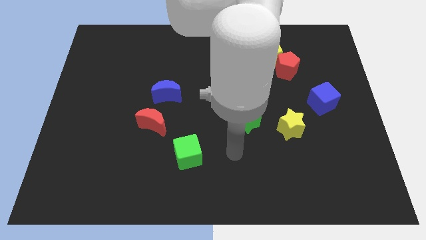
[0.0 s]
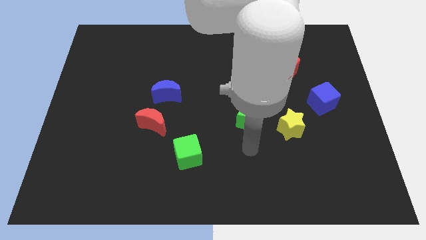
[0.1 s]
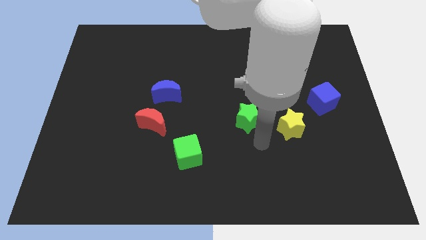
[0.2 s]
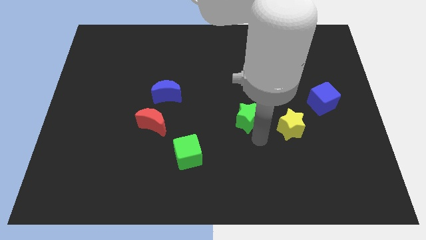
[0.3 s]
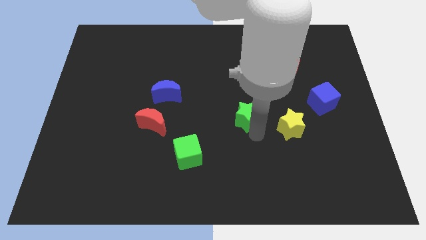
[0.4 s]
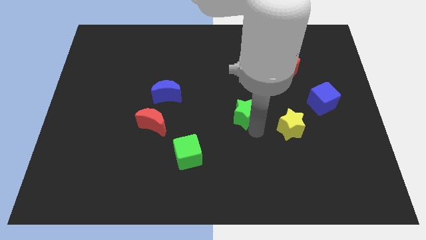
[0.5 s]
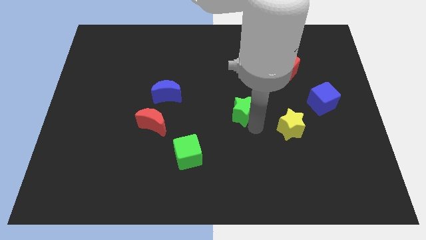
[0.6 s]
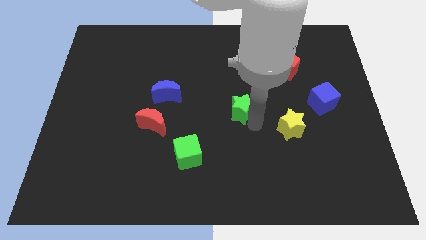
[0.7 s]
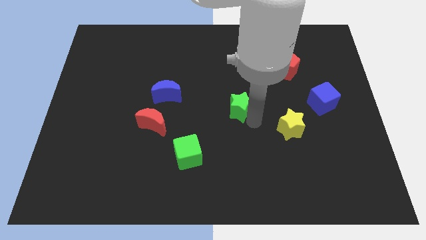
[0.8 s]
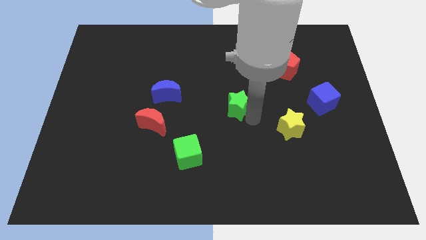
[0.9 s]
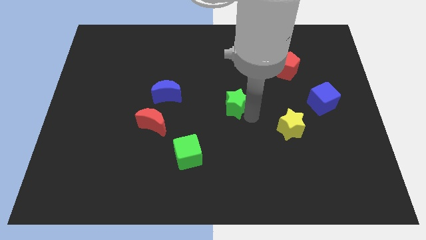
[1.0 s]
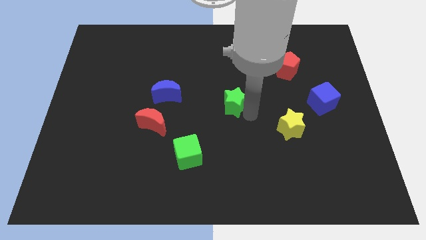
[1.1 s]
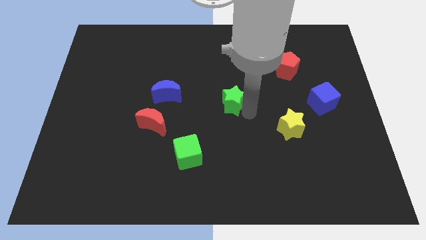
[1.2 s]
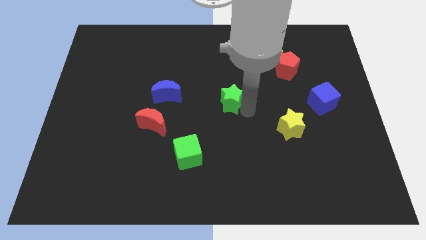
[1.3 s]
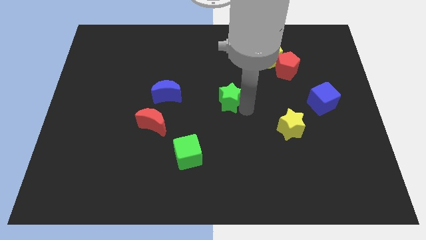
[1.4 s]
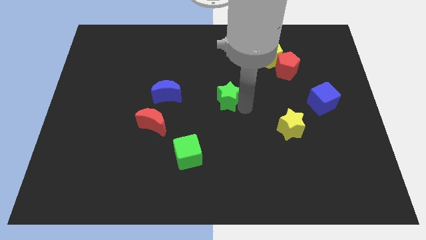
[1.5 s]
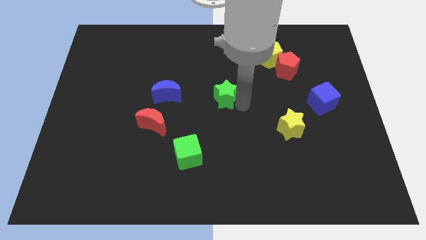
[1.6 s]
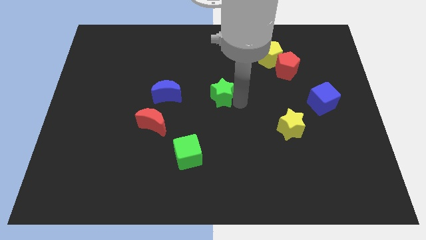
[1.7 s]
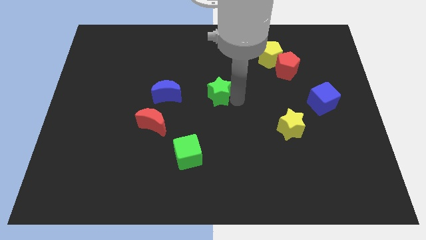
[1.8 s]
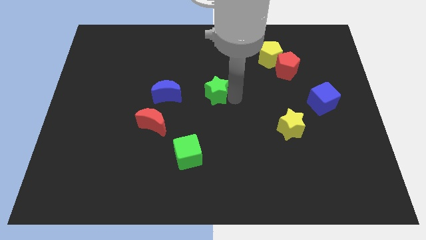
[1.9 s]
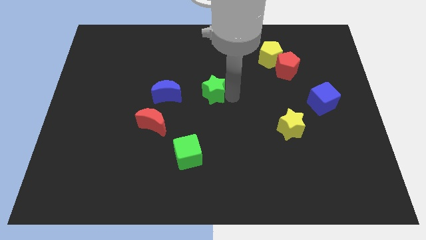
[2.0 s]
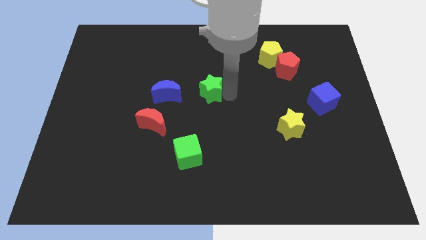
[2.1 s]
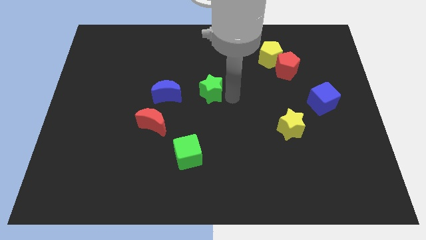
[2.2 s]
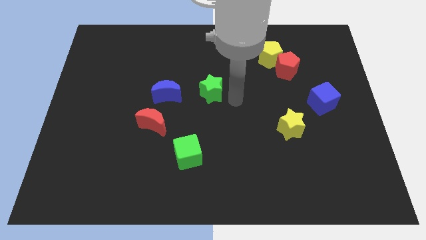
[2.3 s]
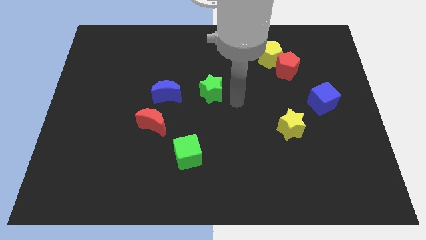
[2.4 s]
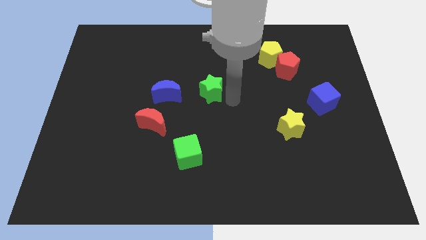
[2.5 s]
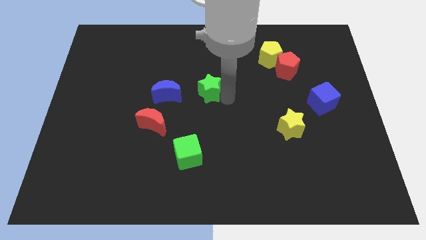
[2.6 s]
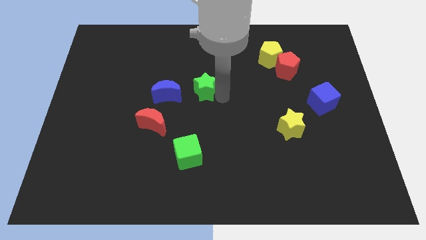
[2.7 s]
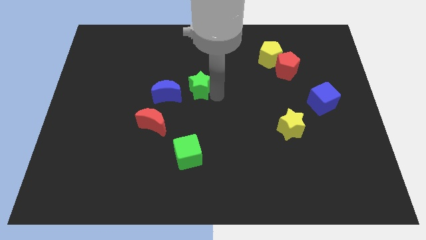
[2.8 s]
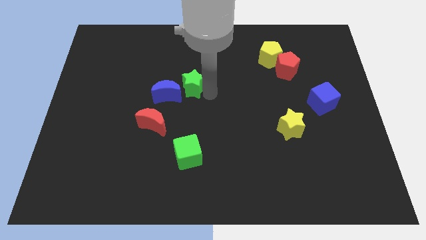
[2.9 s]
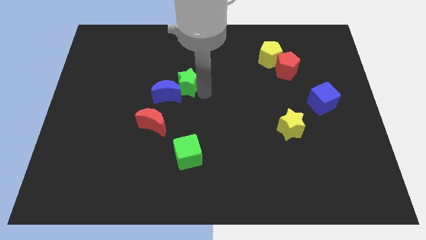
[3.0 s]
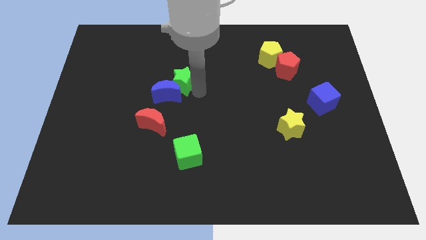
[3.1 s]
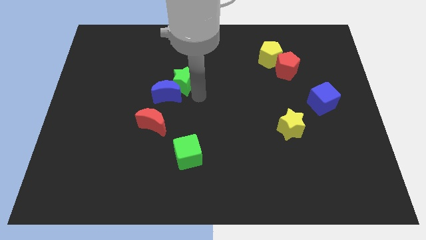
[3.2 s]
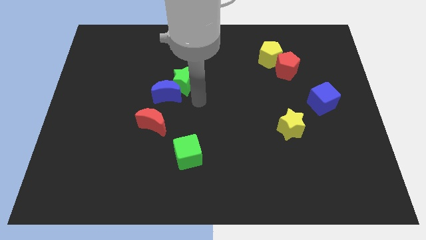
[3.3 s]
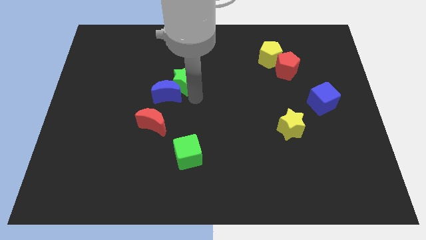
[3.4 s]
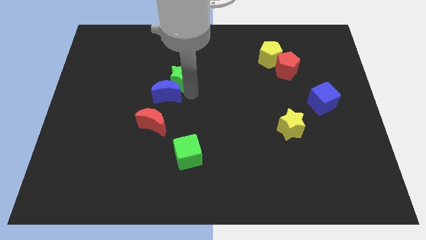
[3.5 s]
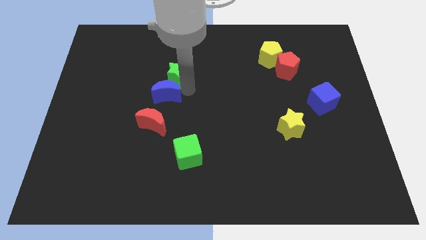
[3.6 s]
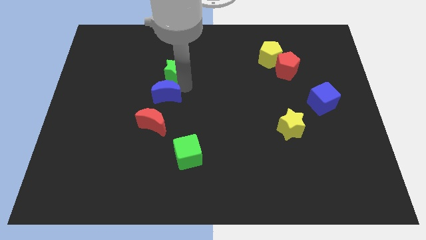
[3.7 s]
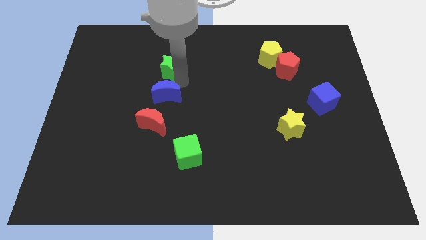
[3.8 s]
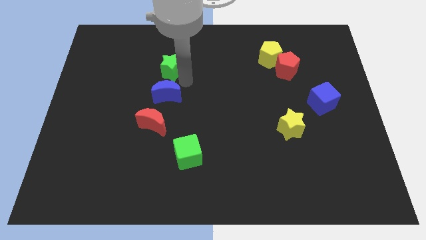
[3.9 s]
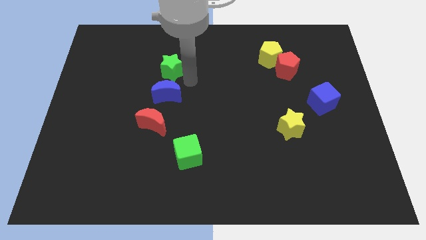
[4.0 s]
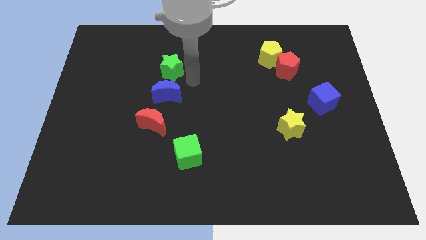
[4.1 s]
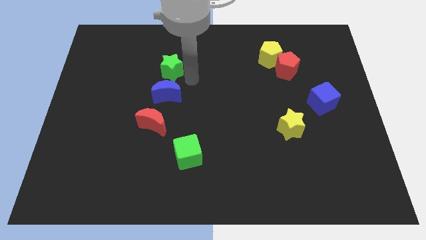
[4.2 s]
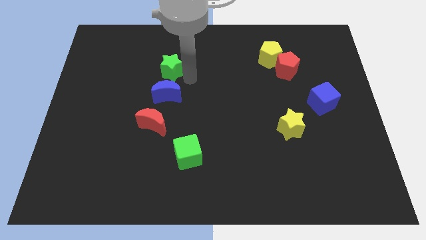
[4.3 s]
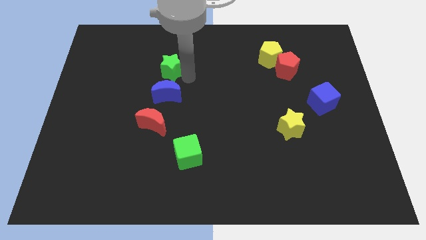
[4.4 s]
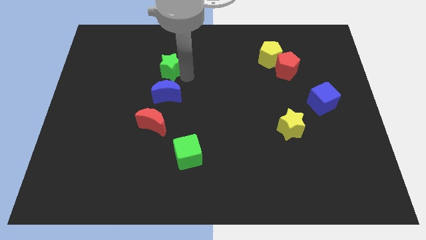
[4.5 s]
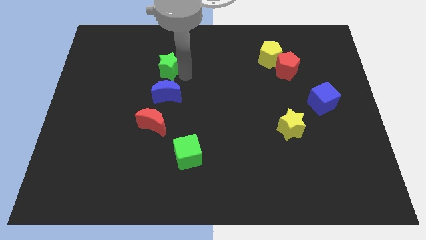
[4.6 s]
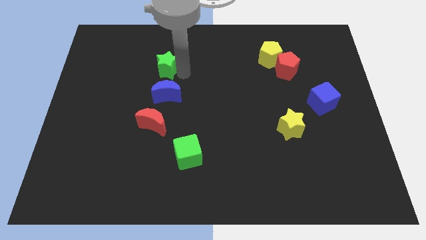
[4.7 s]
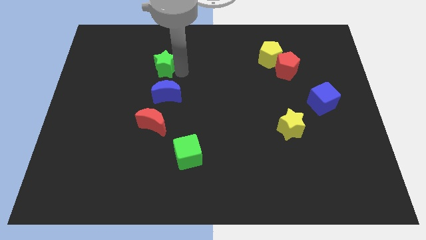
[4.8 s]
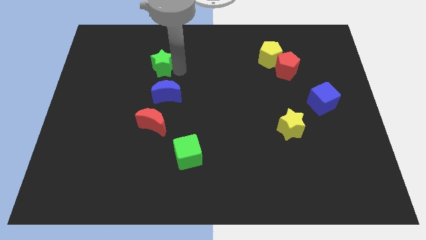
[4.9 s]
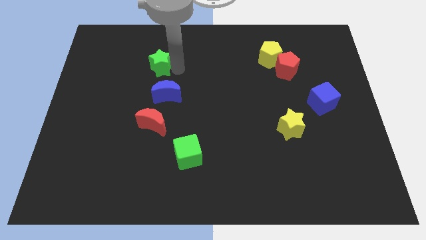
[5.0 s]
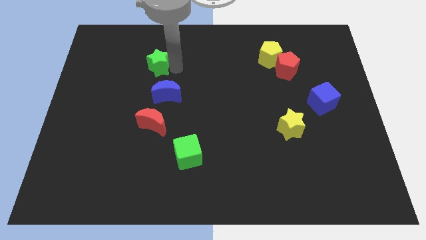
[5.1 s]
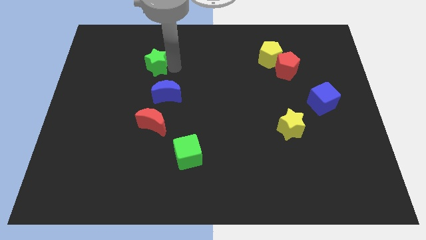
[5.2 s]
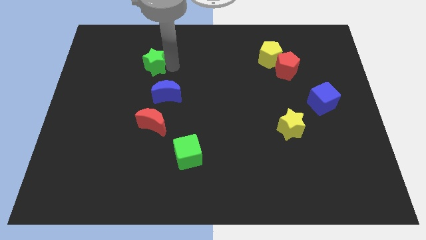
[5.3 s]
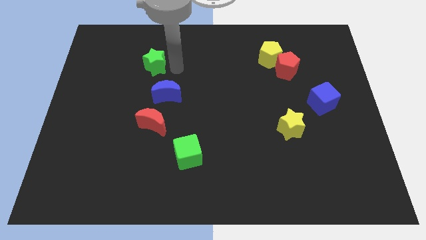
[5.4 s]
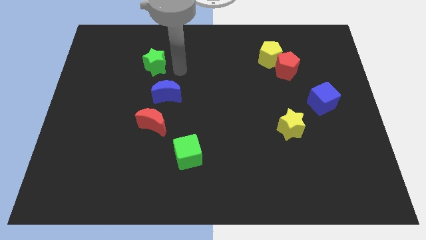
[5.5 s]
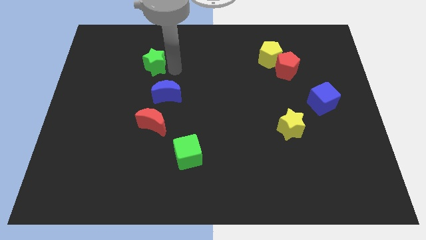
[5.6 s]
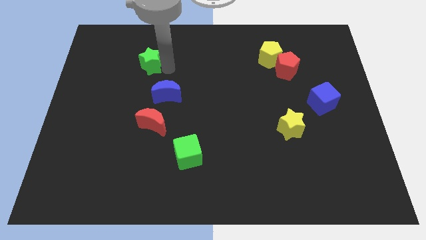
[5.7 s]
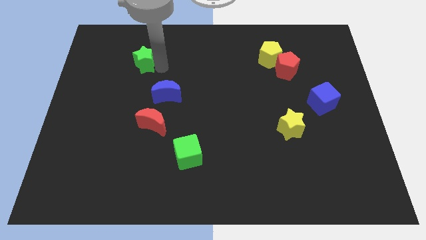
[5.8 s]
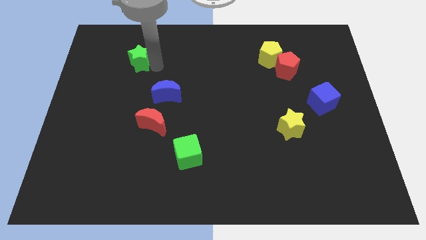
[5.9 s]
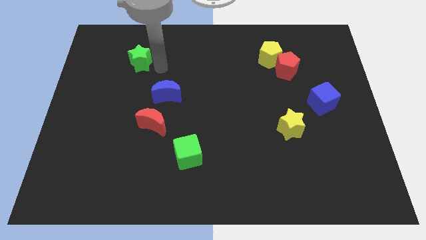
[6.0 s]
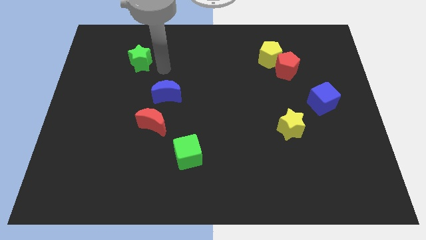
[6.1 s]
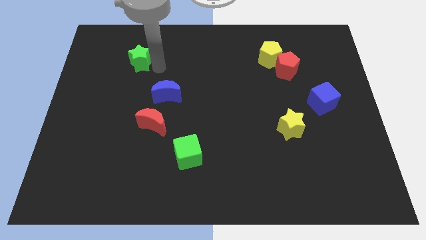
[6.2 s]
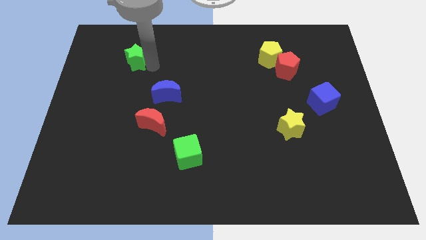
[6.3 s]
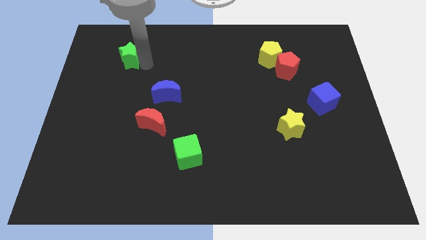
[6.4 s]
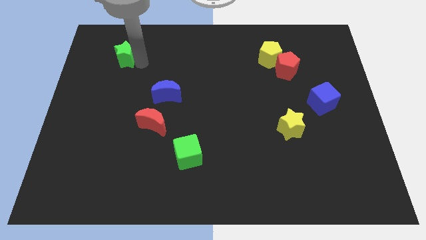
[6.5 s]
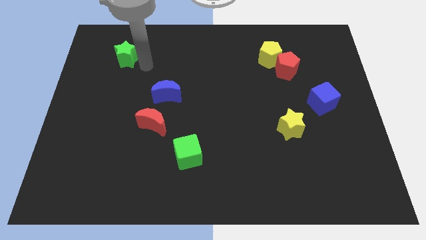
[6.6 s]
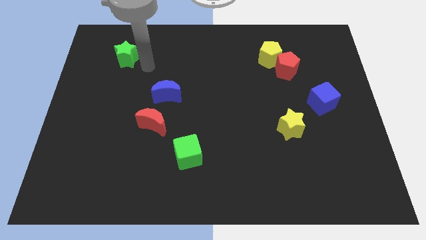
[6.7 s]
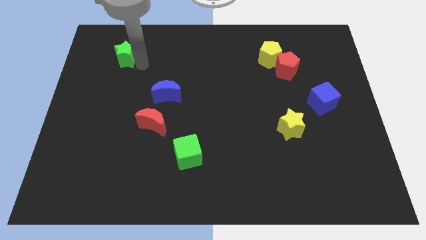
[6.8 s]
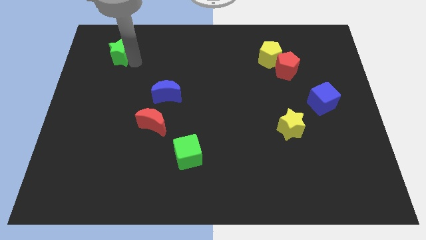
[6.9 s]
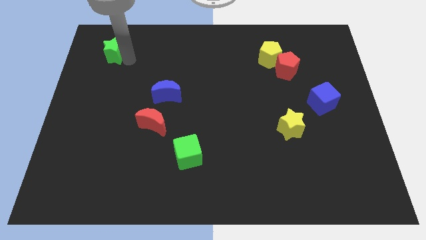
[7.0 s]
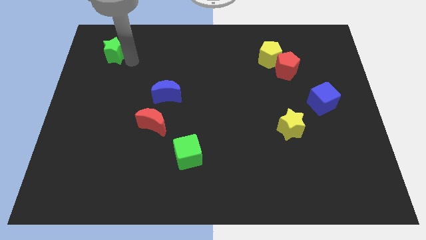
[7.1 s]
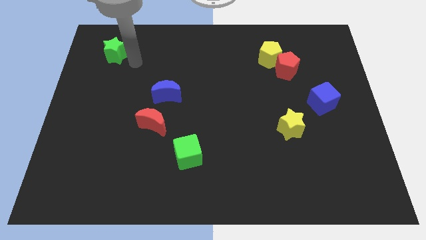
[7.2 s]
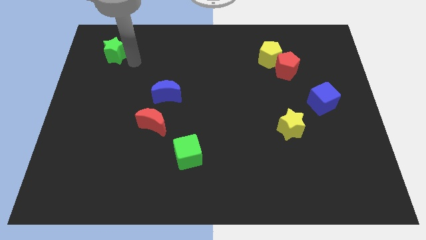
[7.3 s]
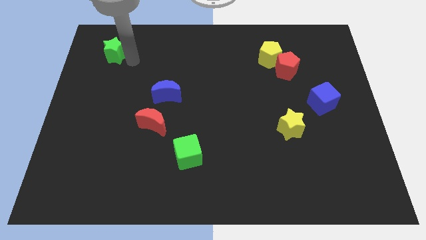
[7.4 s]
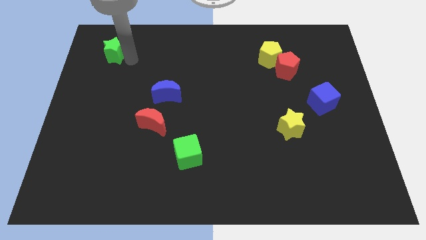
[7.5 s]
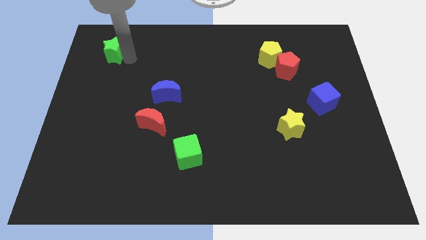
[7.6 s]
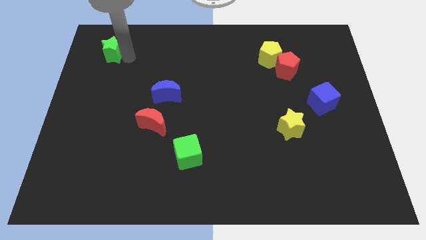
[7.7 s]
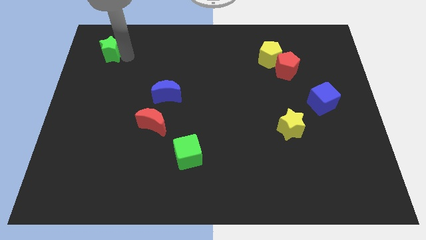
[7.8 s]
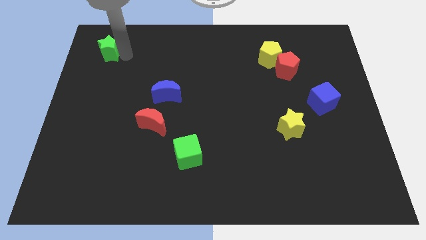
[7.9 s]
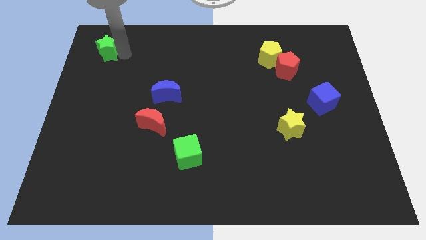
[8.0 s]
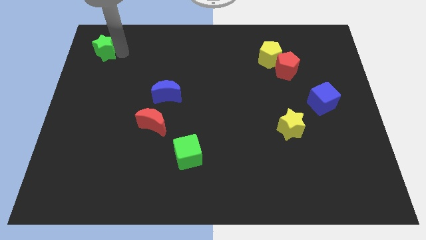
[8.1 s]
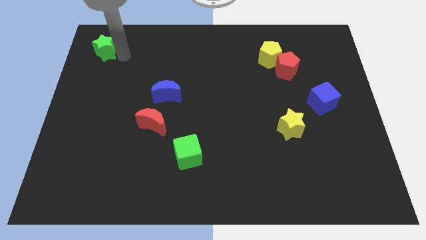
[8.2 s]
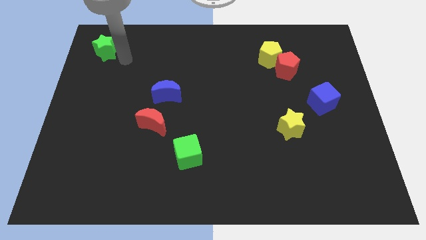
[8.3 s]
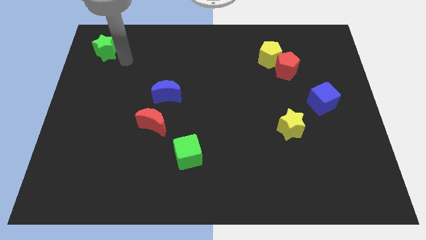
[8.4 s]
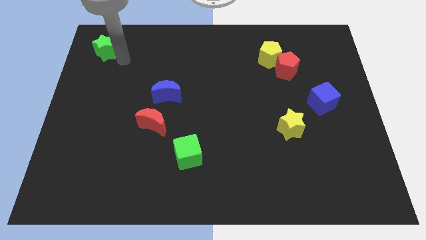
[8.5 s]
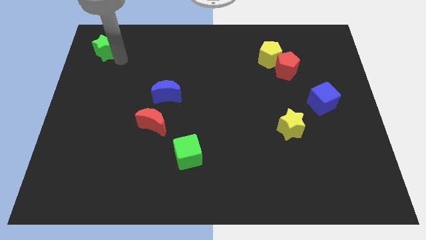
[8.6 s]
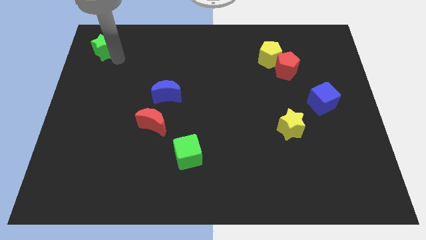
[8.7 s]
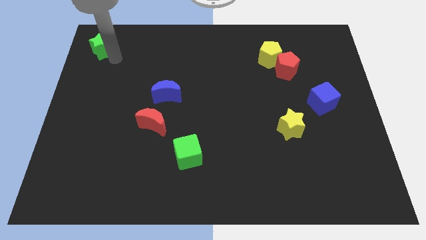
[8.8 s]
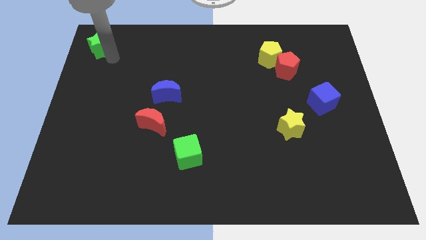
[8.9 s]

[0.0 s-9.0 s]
push the green star to the top left
